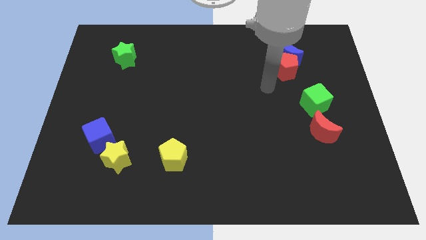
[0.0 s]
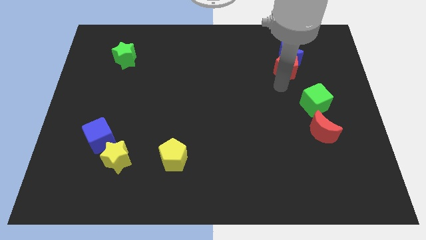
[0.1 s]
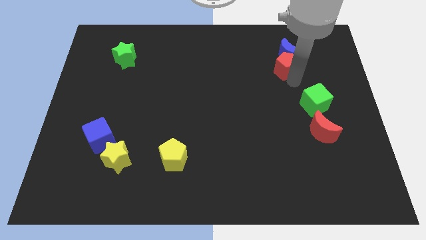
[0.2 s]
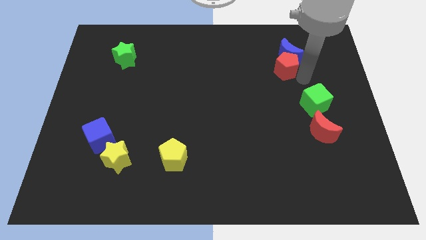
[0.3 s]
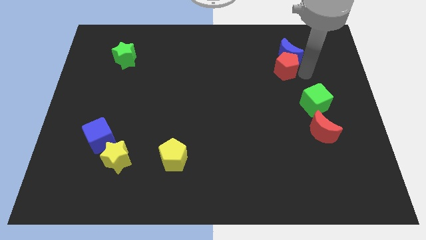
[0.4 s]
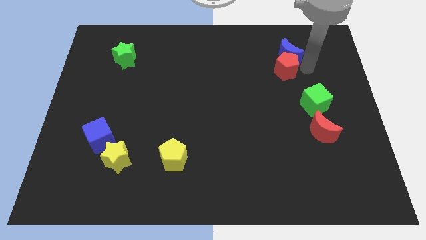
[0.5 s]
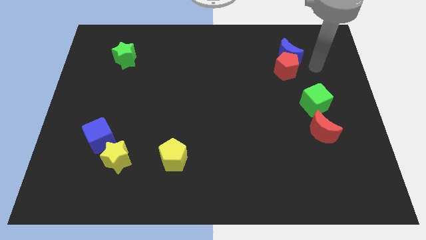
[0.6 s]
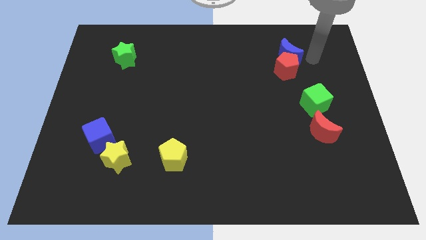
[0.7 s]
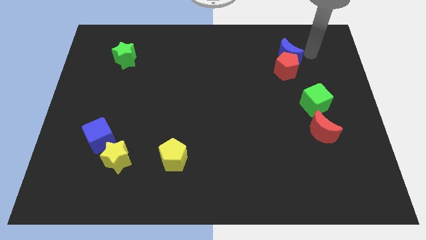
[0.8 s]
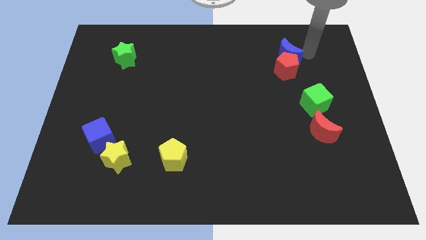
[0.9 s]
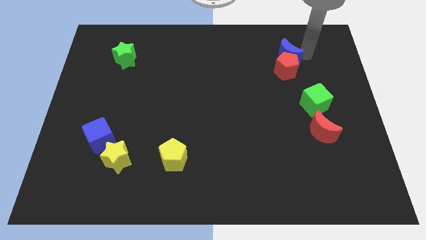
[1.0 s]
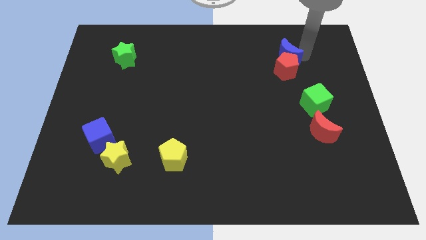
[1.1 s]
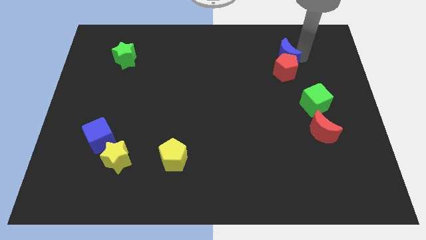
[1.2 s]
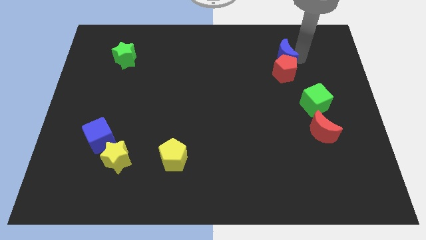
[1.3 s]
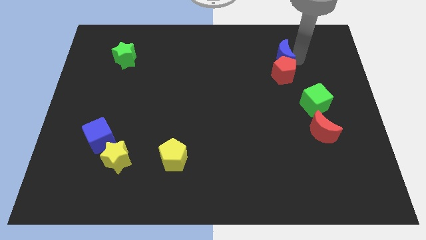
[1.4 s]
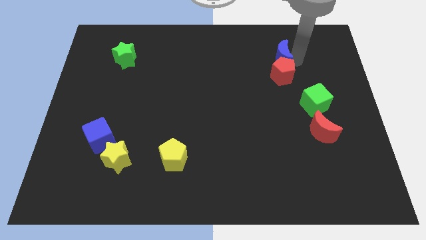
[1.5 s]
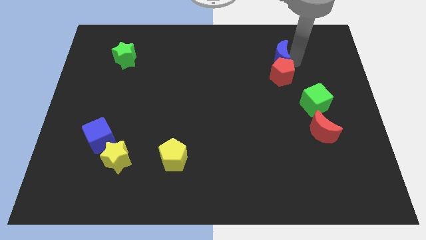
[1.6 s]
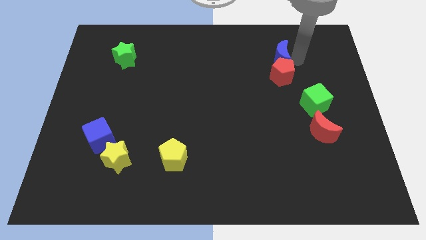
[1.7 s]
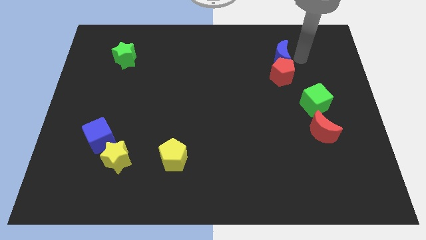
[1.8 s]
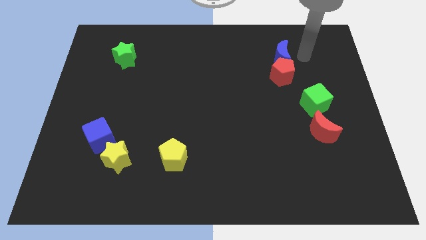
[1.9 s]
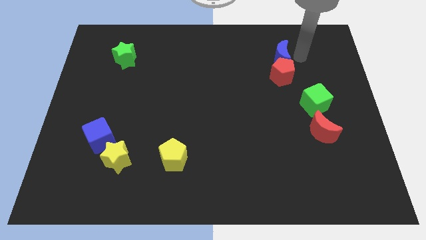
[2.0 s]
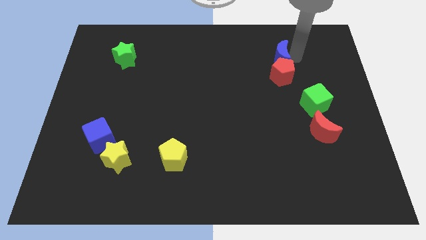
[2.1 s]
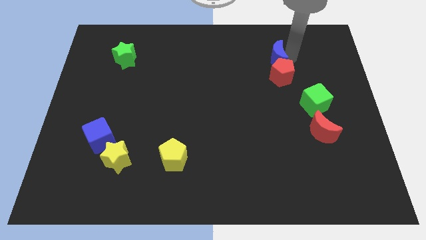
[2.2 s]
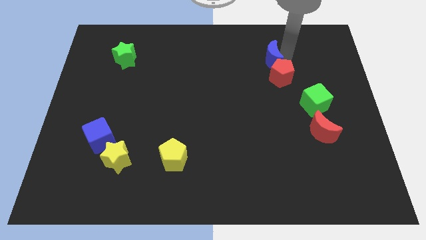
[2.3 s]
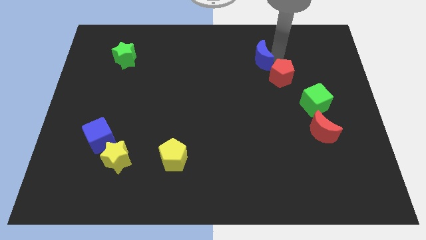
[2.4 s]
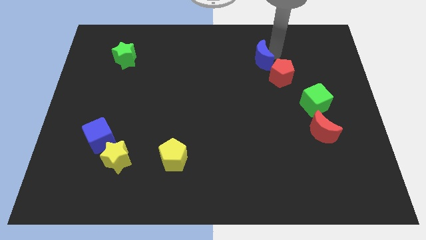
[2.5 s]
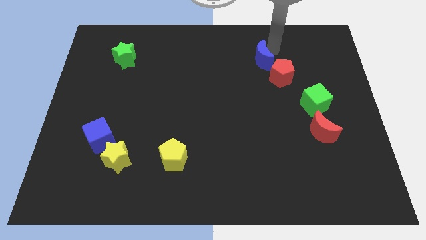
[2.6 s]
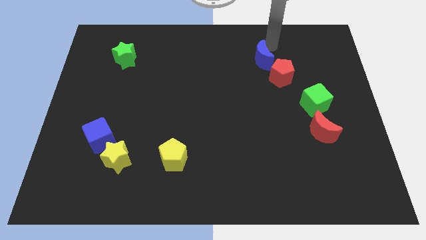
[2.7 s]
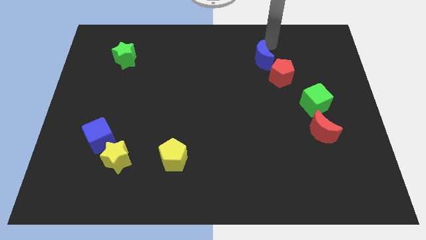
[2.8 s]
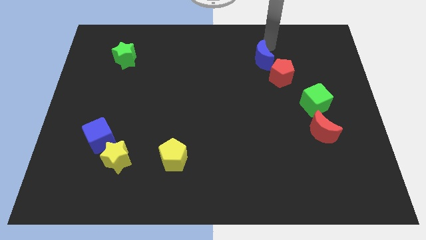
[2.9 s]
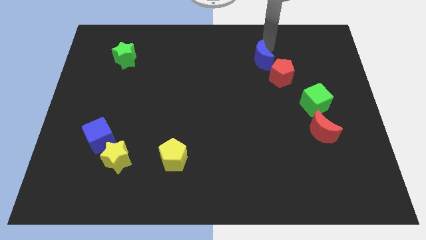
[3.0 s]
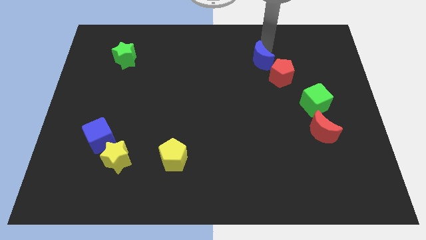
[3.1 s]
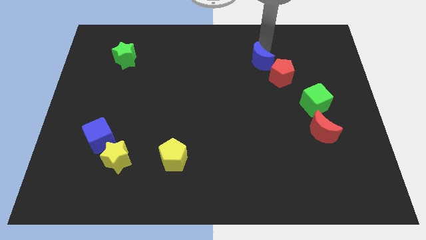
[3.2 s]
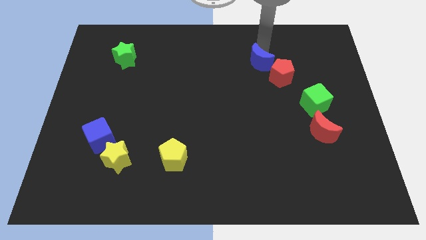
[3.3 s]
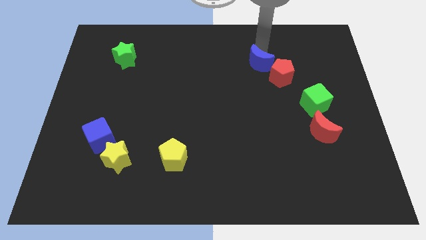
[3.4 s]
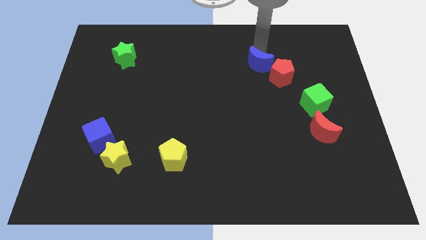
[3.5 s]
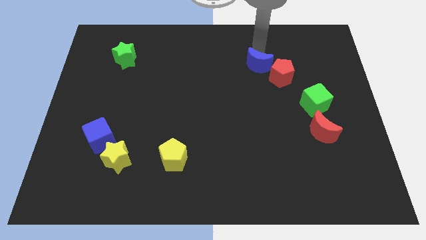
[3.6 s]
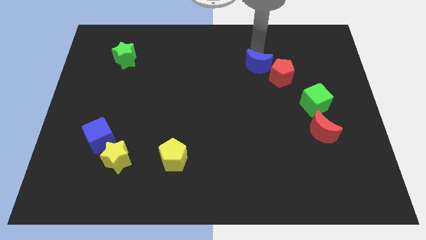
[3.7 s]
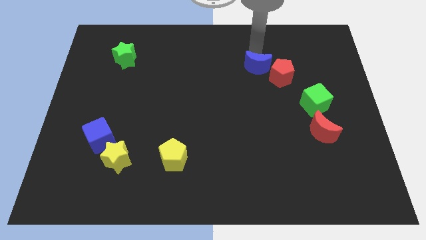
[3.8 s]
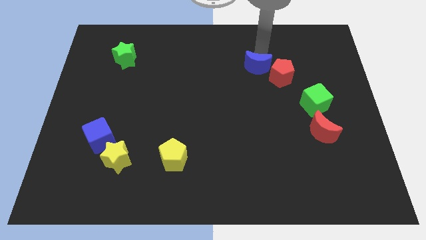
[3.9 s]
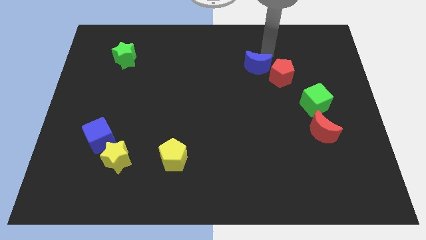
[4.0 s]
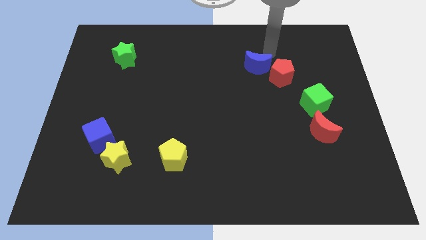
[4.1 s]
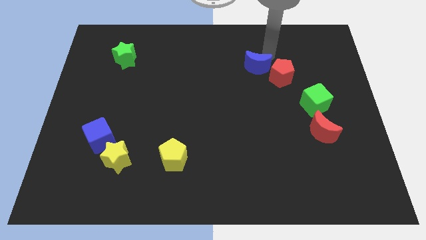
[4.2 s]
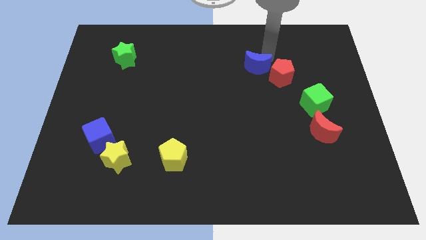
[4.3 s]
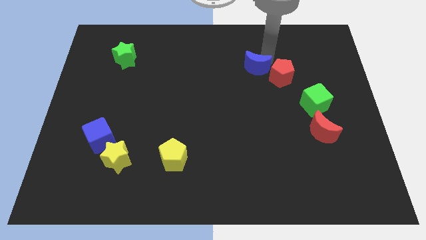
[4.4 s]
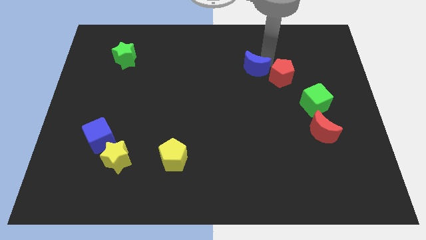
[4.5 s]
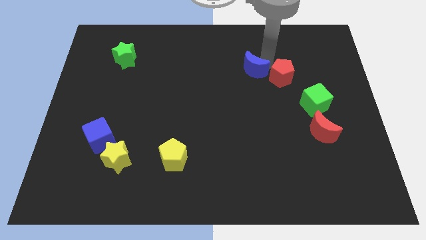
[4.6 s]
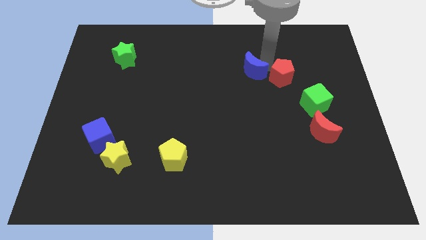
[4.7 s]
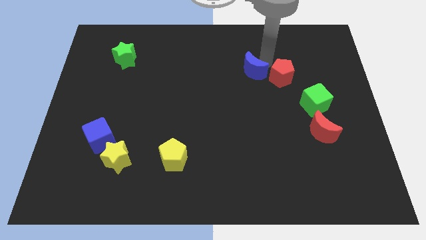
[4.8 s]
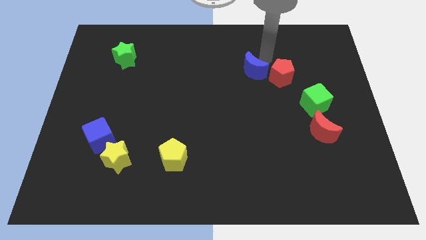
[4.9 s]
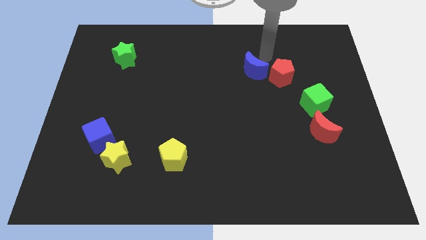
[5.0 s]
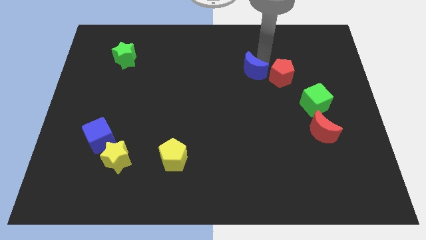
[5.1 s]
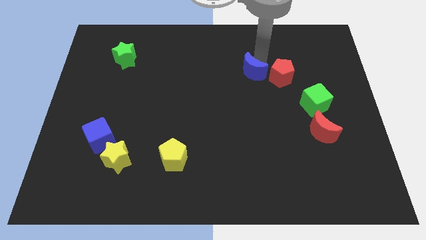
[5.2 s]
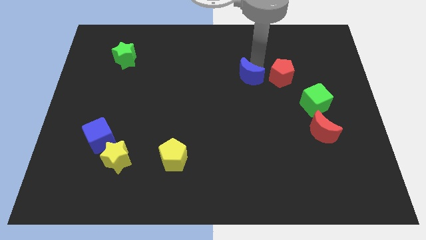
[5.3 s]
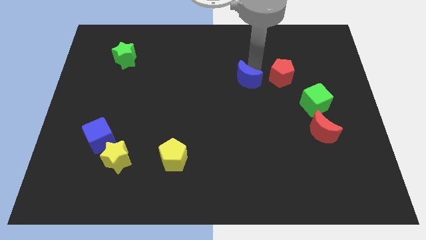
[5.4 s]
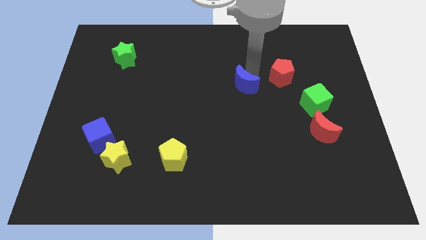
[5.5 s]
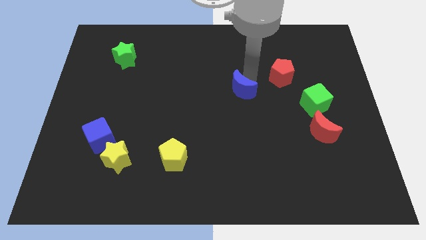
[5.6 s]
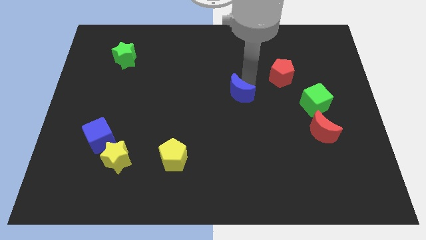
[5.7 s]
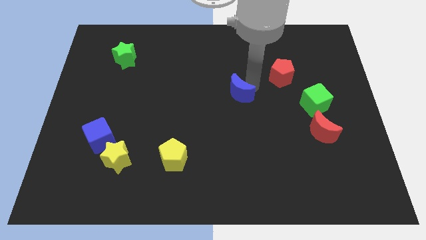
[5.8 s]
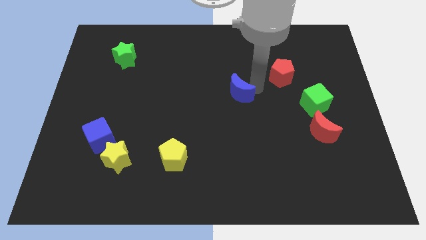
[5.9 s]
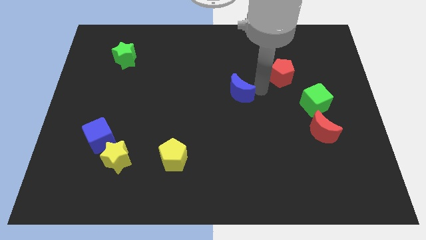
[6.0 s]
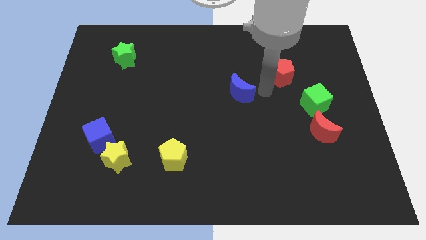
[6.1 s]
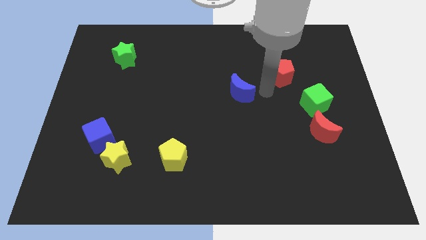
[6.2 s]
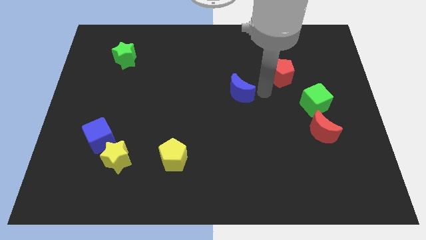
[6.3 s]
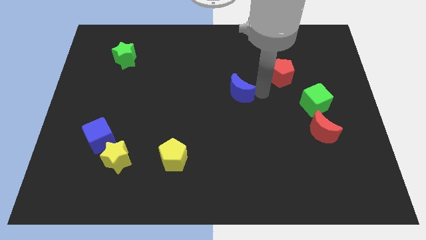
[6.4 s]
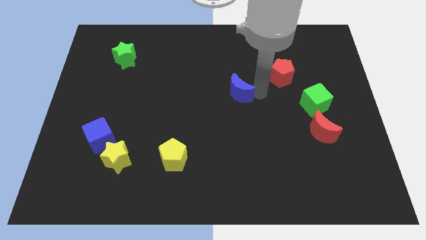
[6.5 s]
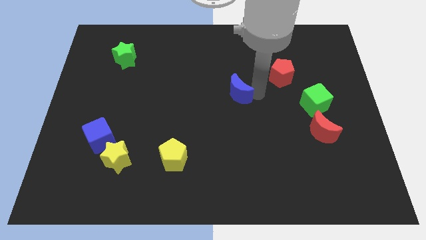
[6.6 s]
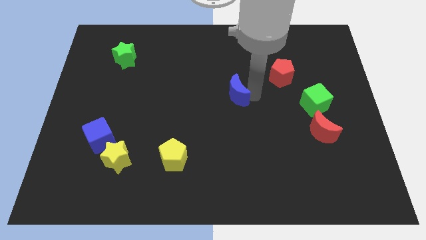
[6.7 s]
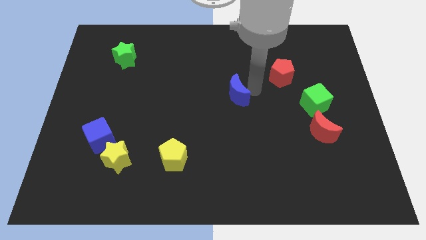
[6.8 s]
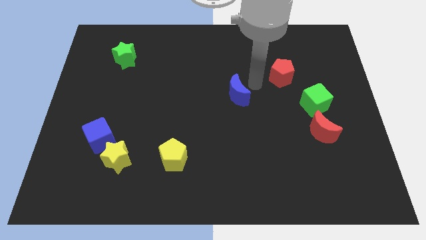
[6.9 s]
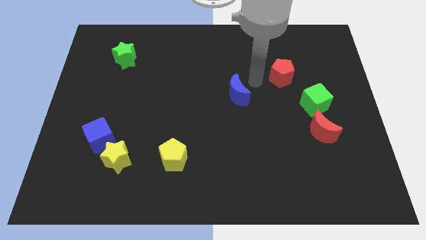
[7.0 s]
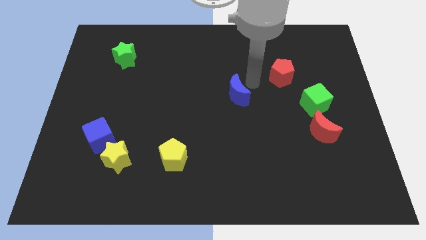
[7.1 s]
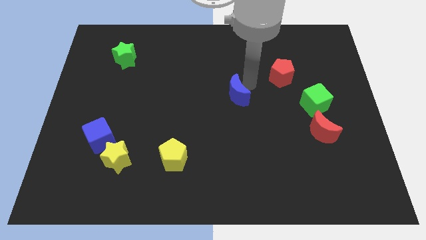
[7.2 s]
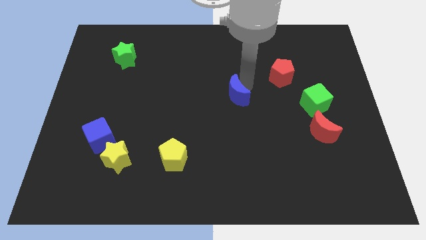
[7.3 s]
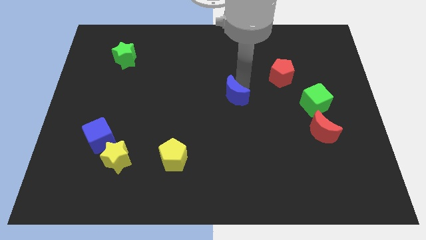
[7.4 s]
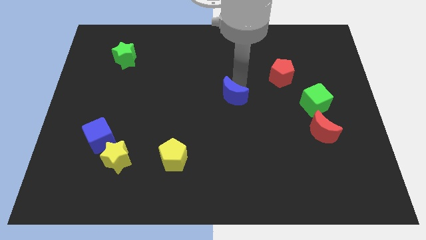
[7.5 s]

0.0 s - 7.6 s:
slide the blue moon down and to the left diagonally

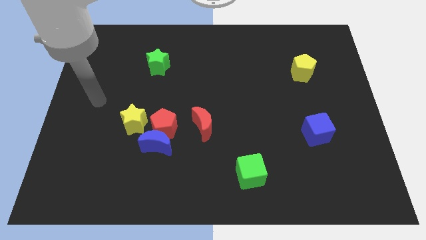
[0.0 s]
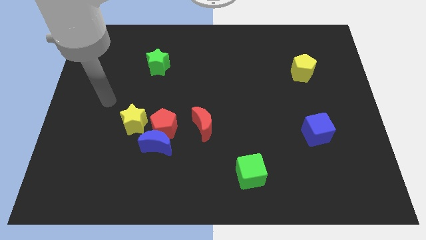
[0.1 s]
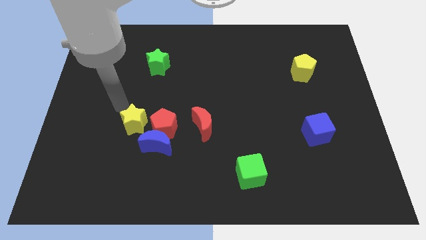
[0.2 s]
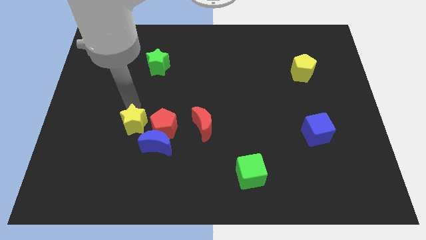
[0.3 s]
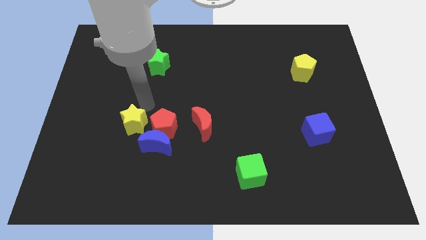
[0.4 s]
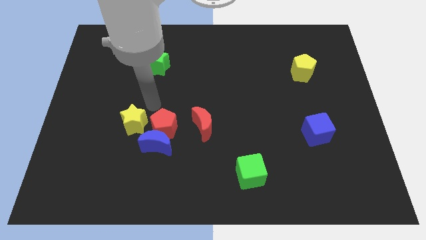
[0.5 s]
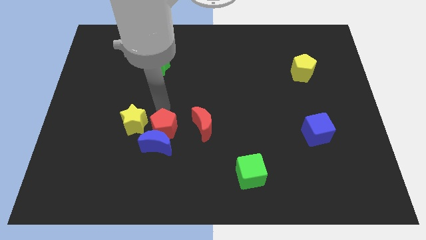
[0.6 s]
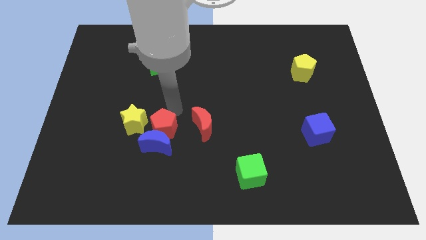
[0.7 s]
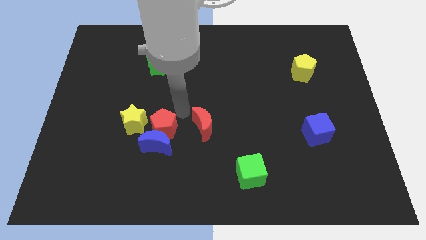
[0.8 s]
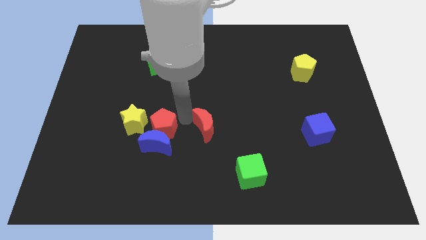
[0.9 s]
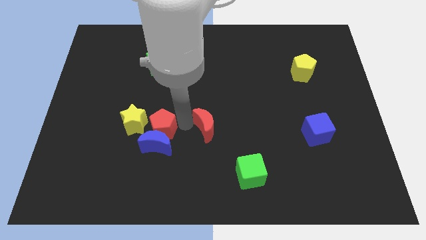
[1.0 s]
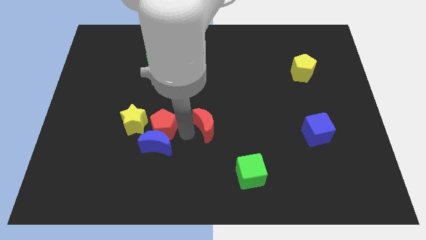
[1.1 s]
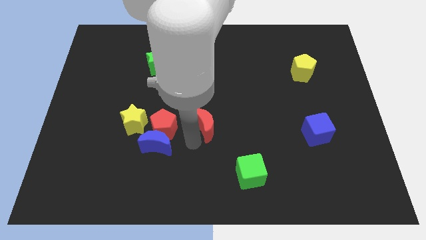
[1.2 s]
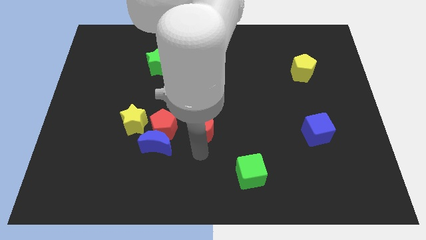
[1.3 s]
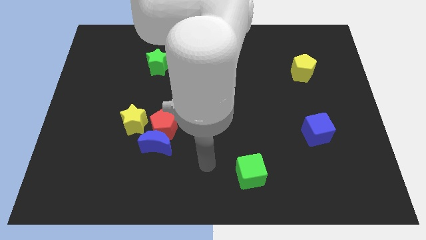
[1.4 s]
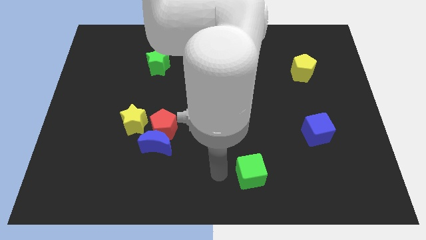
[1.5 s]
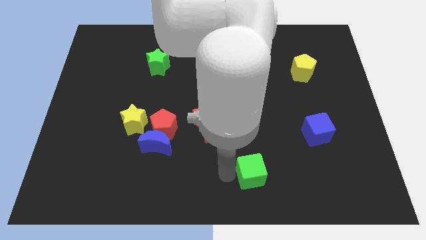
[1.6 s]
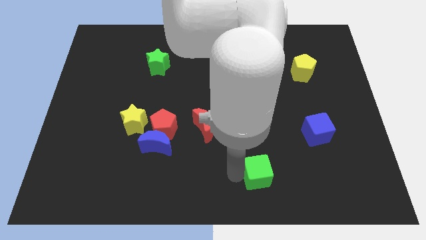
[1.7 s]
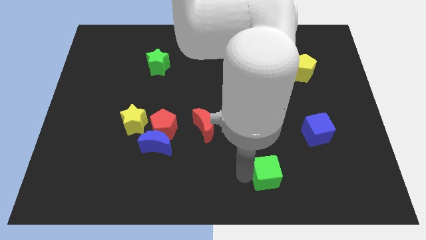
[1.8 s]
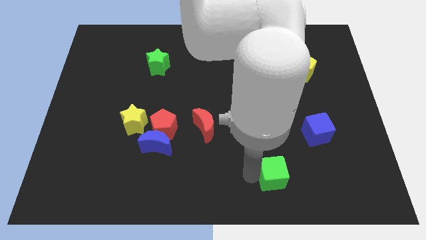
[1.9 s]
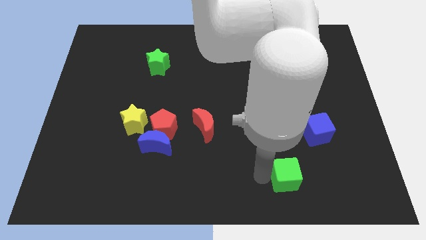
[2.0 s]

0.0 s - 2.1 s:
slide the green cube a bit right
